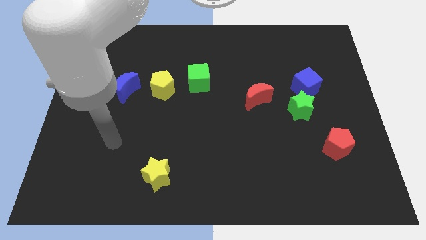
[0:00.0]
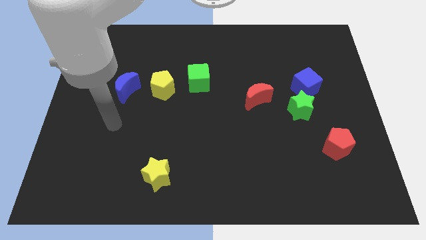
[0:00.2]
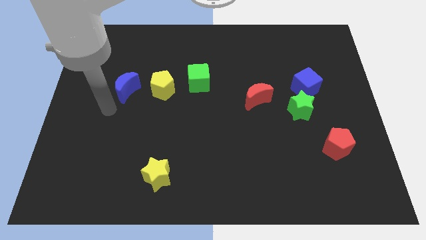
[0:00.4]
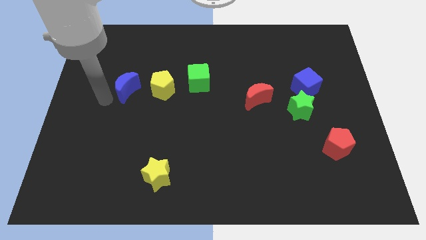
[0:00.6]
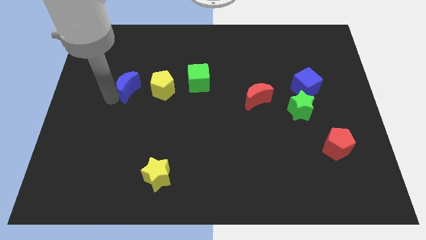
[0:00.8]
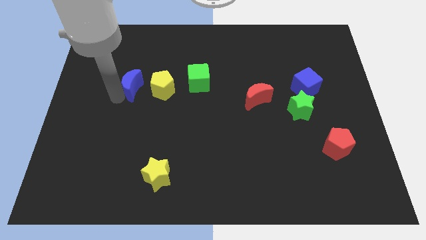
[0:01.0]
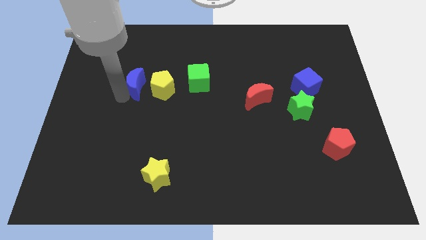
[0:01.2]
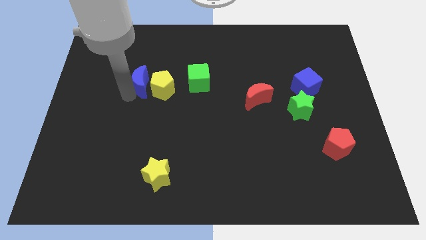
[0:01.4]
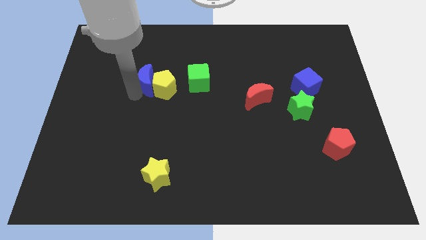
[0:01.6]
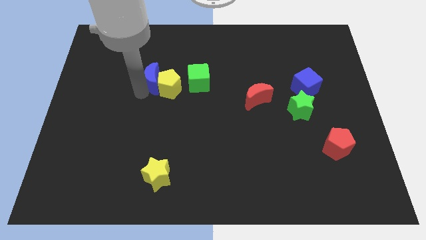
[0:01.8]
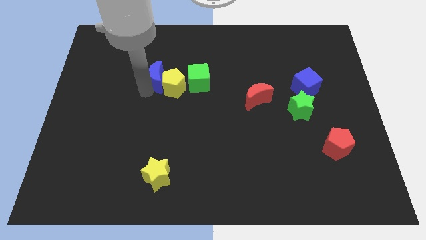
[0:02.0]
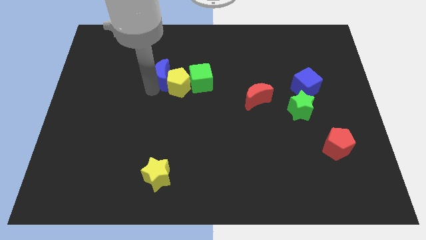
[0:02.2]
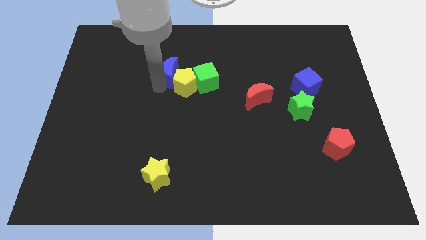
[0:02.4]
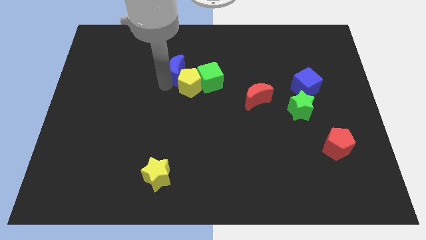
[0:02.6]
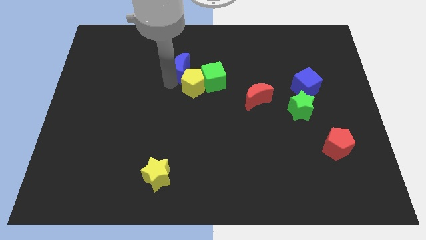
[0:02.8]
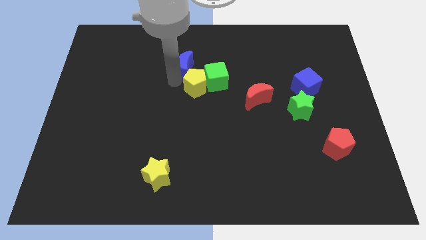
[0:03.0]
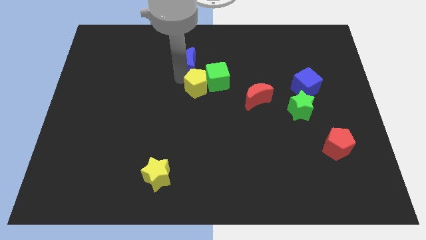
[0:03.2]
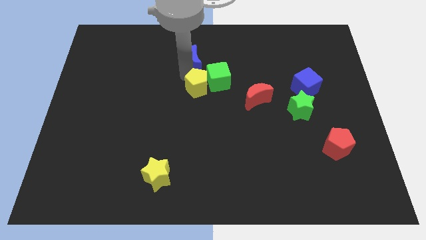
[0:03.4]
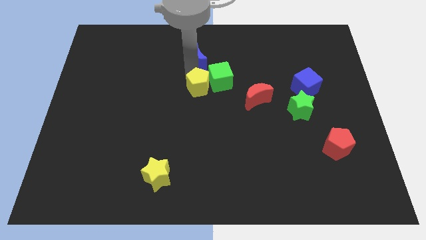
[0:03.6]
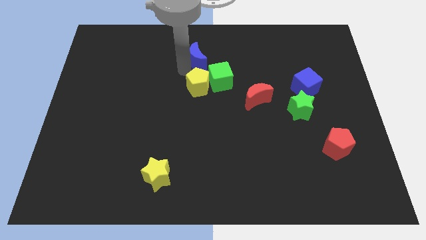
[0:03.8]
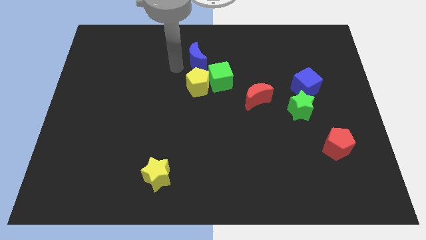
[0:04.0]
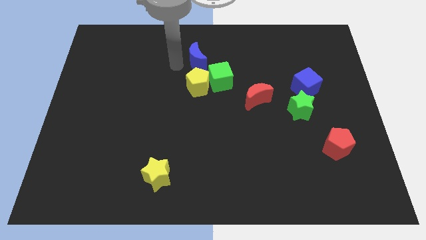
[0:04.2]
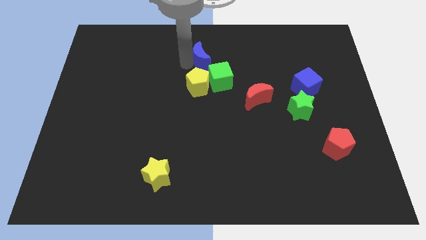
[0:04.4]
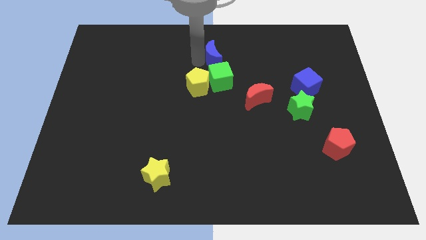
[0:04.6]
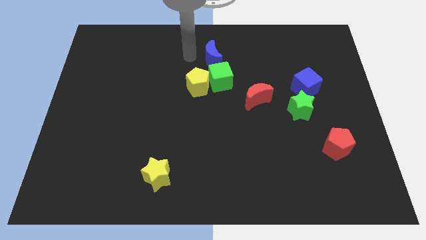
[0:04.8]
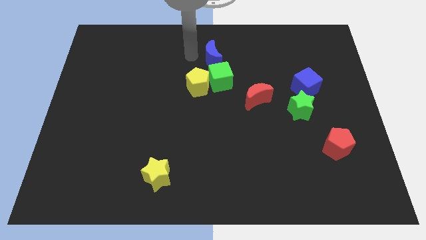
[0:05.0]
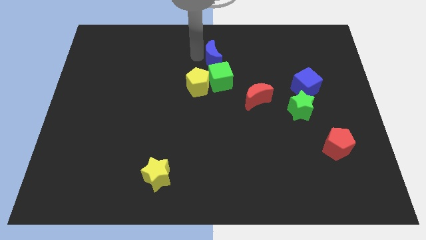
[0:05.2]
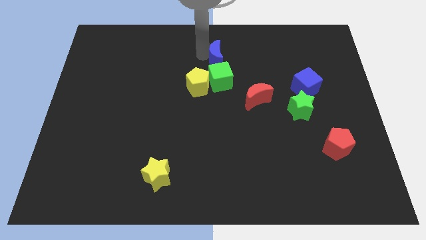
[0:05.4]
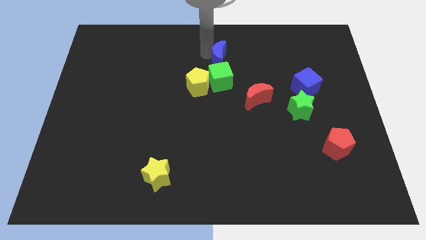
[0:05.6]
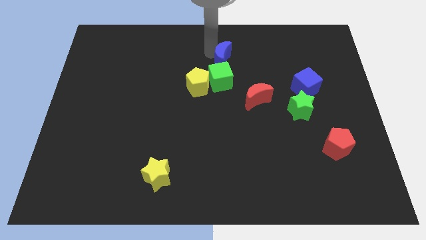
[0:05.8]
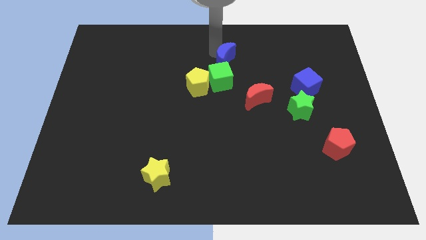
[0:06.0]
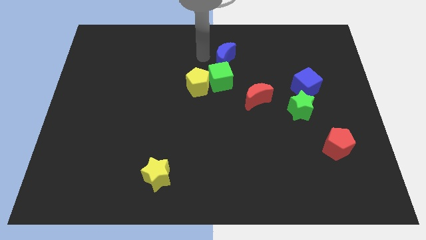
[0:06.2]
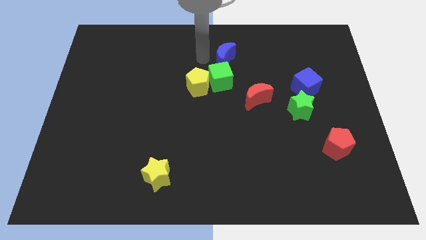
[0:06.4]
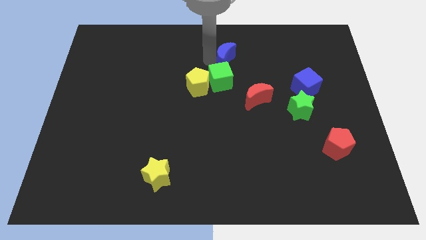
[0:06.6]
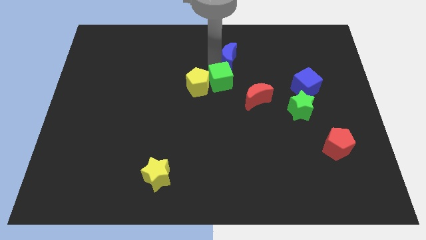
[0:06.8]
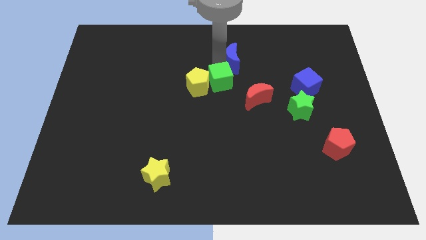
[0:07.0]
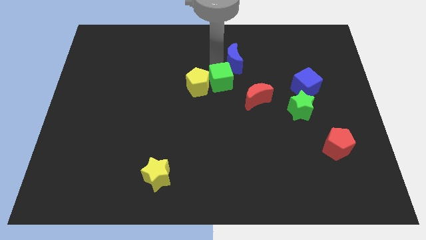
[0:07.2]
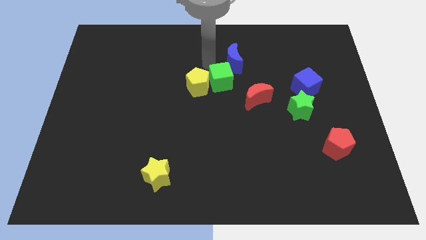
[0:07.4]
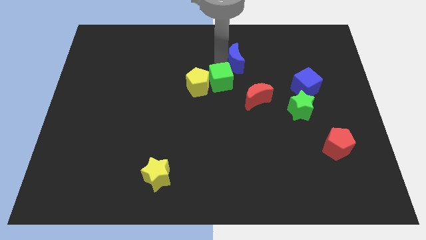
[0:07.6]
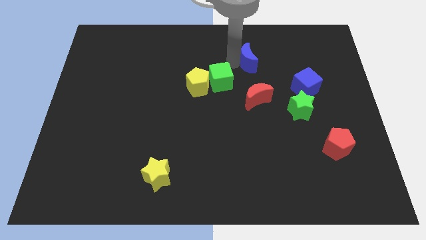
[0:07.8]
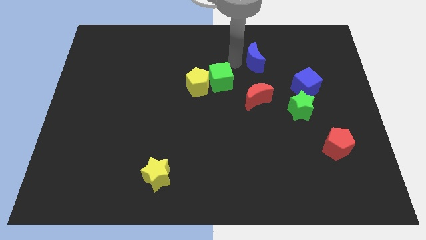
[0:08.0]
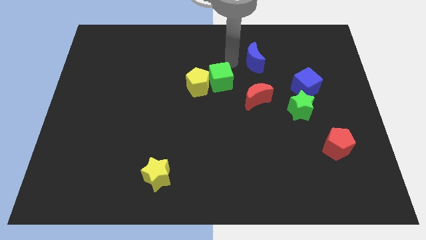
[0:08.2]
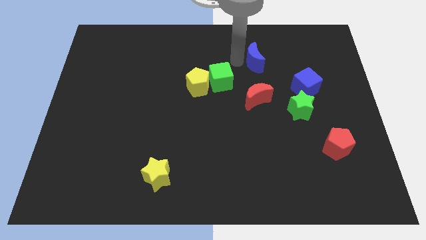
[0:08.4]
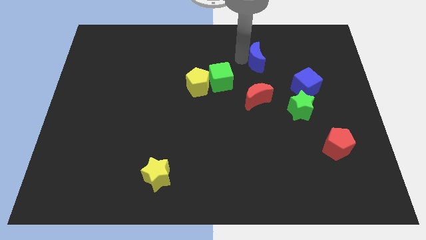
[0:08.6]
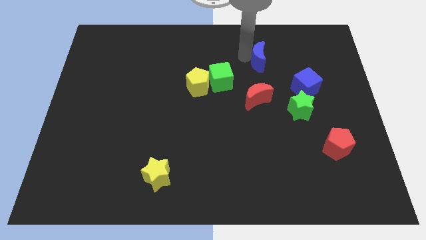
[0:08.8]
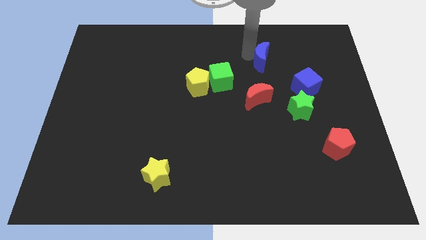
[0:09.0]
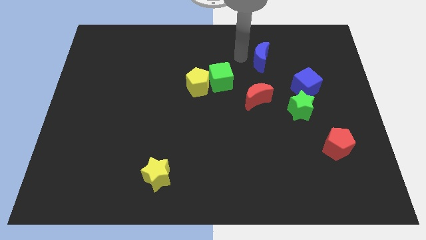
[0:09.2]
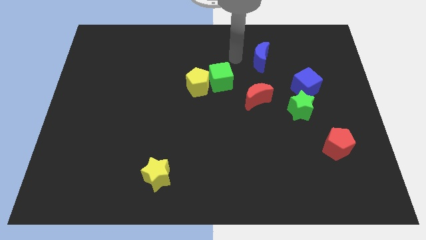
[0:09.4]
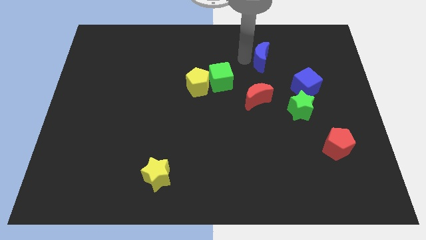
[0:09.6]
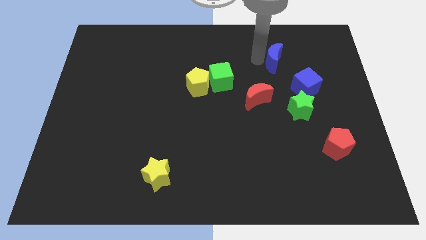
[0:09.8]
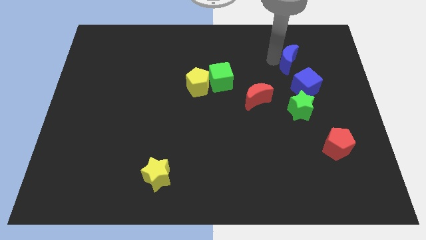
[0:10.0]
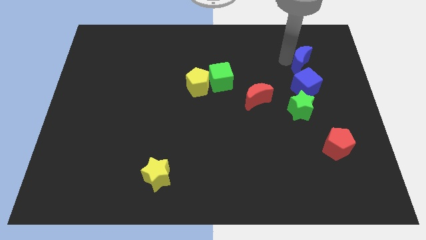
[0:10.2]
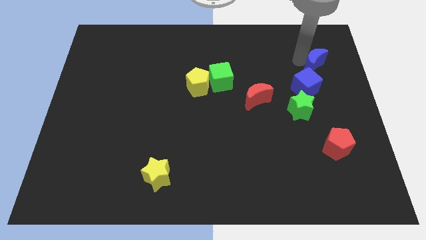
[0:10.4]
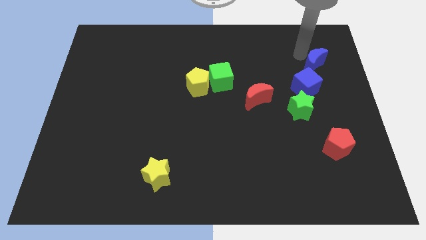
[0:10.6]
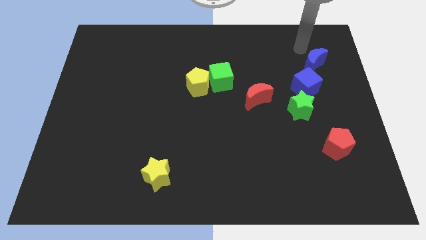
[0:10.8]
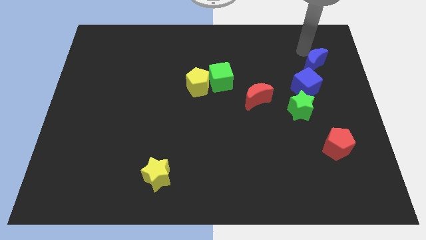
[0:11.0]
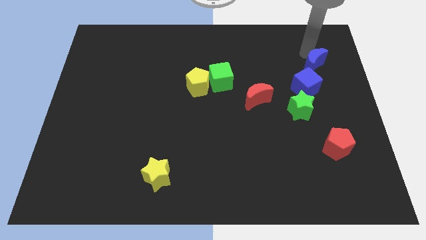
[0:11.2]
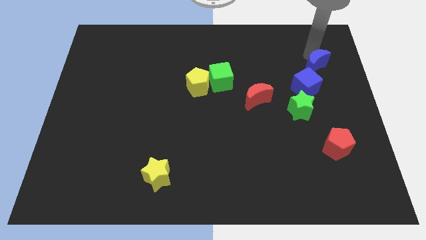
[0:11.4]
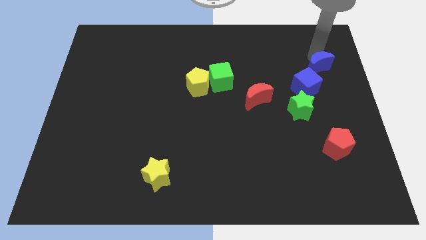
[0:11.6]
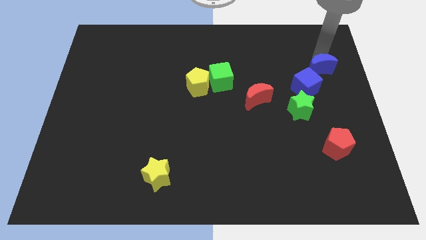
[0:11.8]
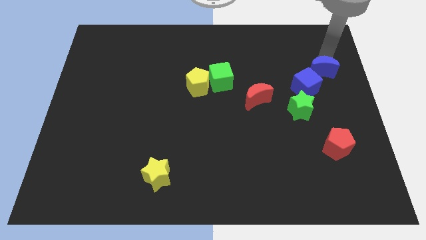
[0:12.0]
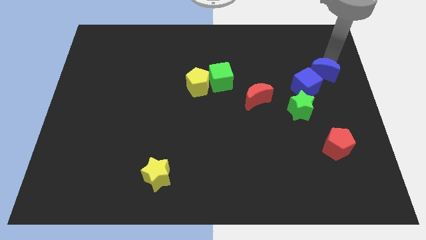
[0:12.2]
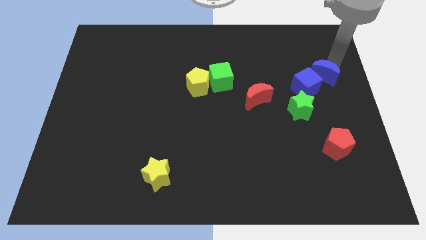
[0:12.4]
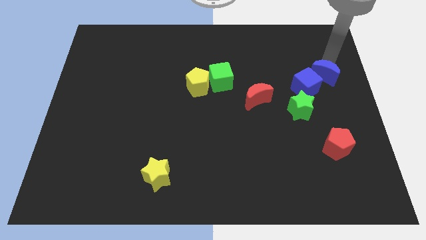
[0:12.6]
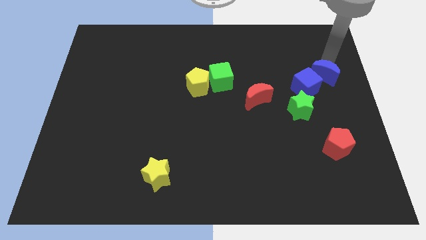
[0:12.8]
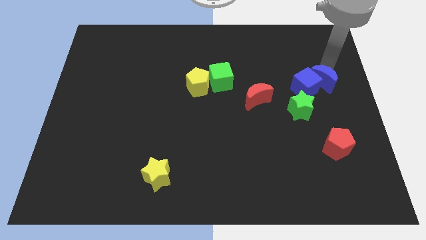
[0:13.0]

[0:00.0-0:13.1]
slide the blue moon to the top right of the green star

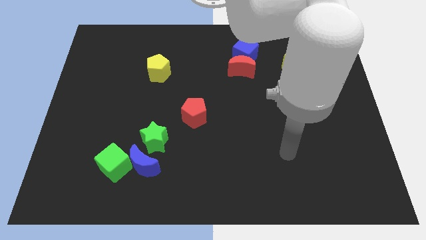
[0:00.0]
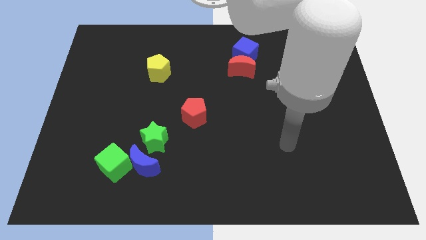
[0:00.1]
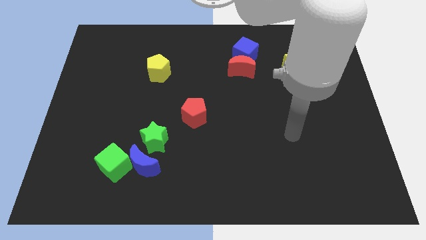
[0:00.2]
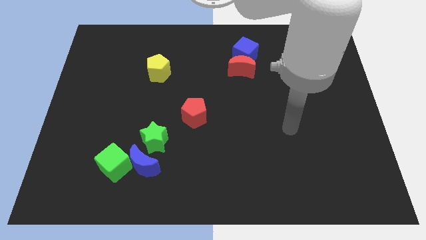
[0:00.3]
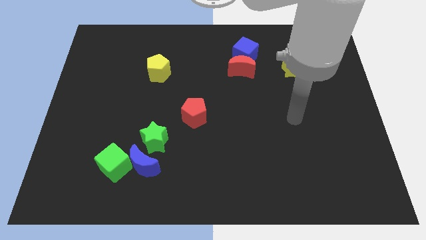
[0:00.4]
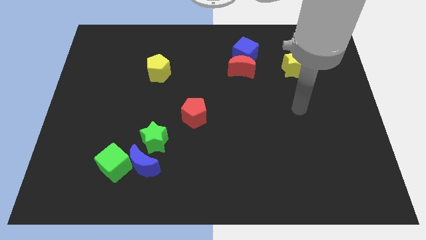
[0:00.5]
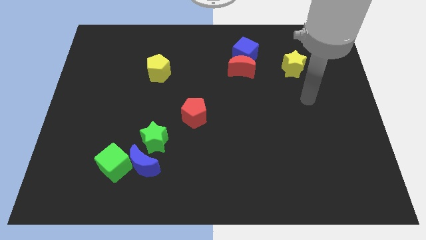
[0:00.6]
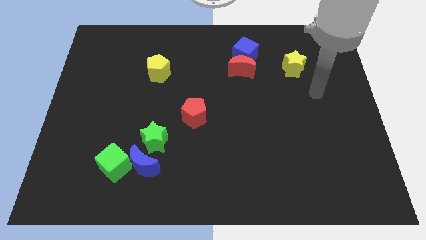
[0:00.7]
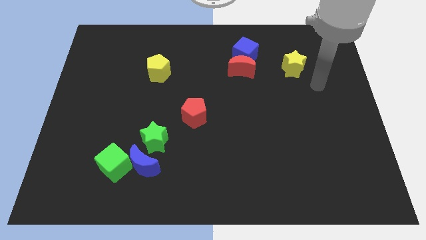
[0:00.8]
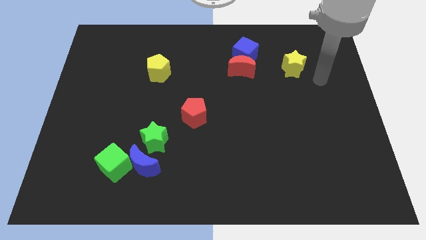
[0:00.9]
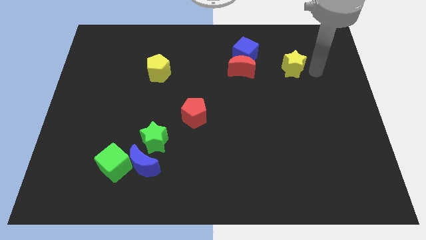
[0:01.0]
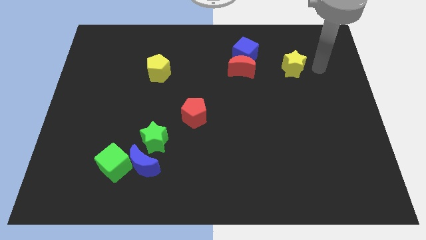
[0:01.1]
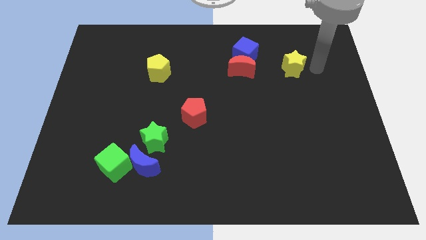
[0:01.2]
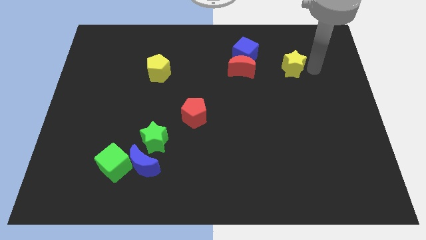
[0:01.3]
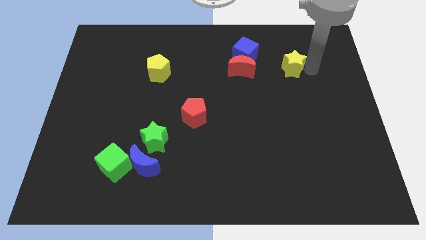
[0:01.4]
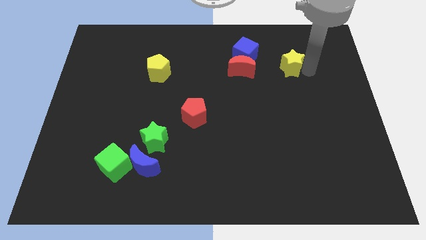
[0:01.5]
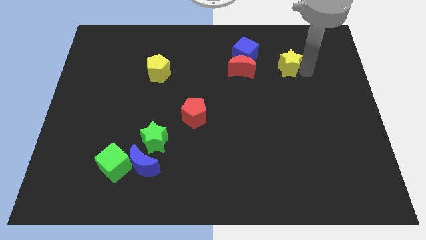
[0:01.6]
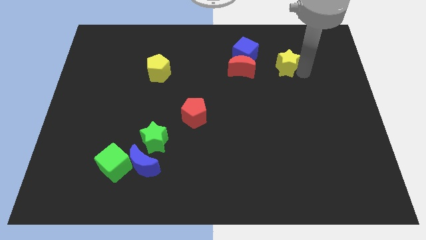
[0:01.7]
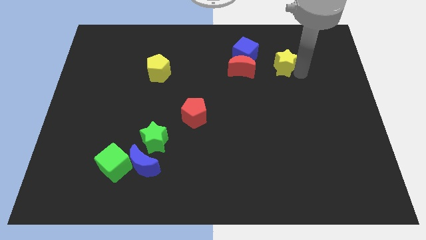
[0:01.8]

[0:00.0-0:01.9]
slide the yellow star to the bottom right of the blue cube
